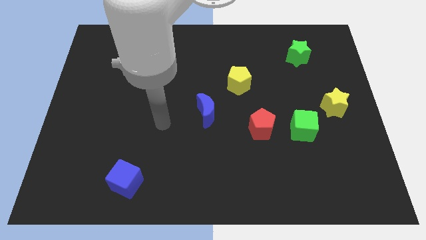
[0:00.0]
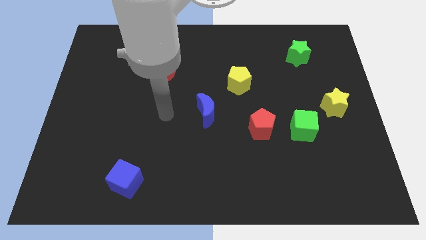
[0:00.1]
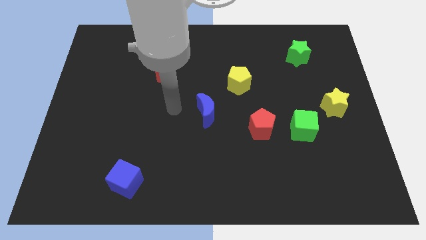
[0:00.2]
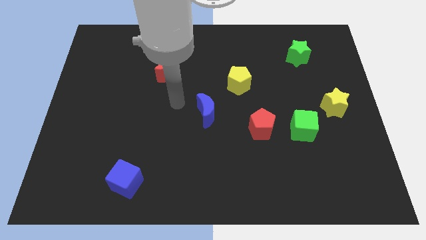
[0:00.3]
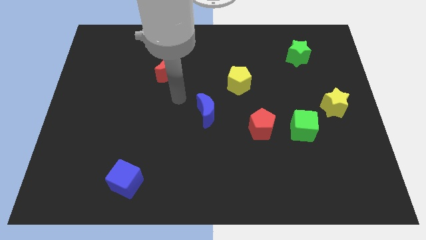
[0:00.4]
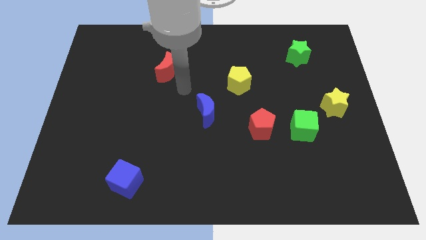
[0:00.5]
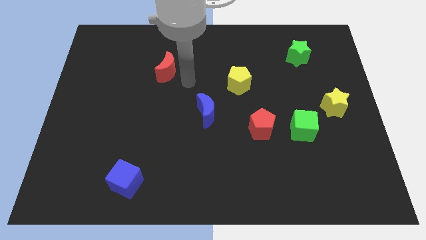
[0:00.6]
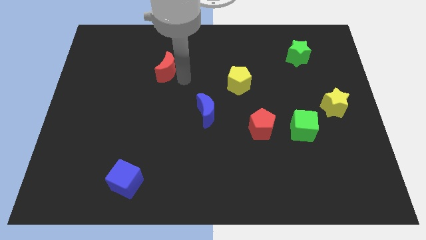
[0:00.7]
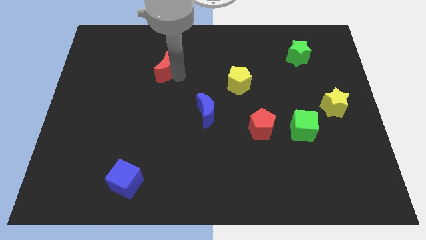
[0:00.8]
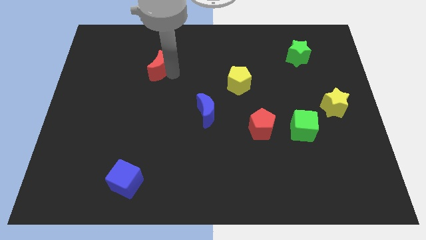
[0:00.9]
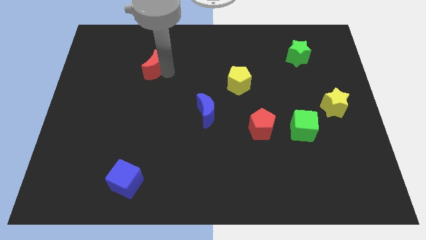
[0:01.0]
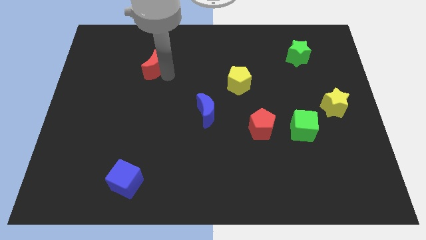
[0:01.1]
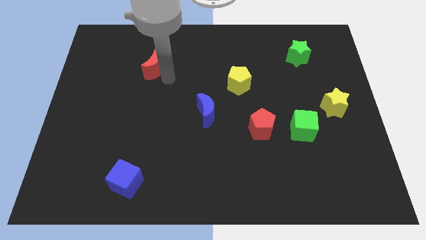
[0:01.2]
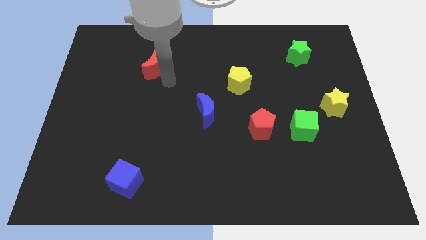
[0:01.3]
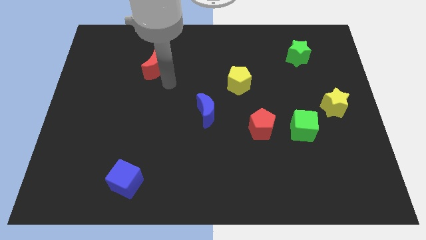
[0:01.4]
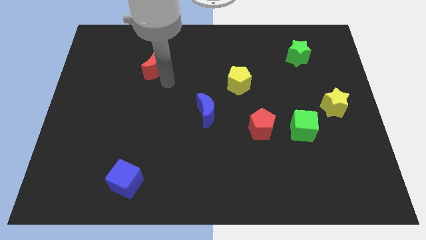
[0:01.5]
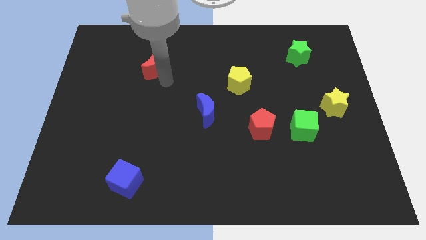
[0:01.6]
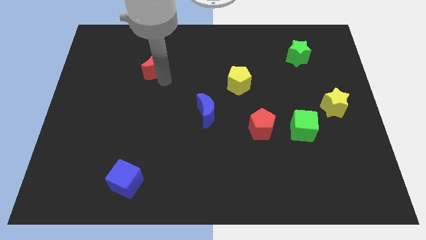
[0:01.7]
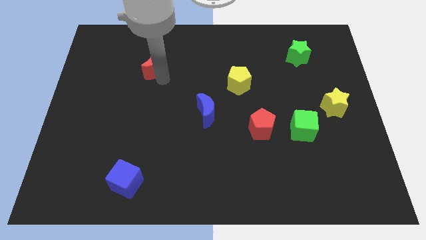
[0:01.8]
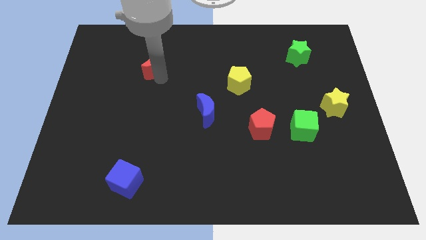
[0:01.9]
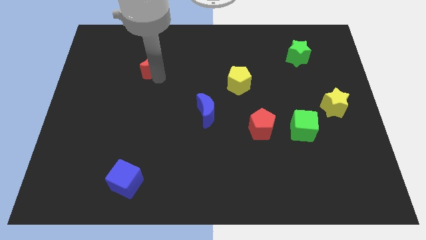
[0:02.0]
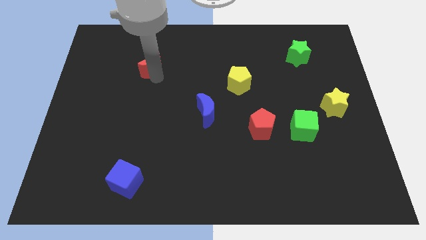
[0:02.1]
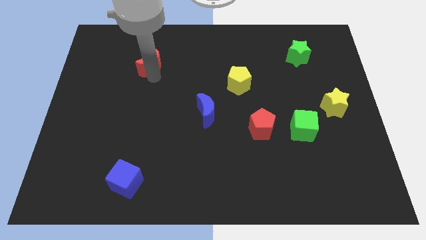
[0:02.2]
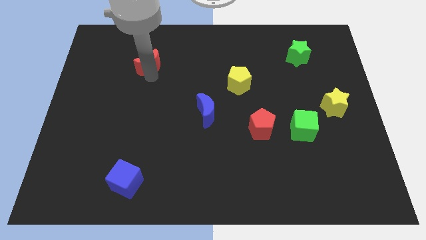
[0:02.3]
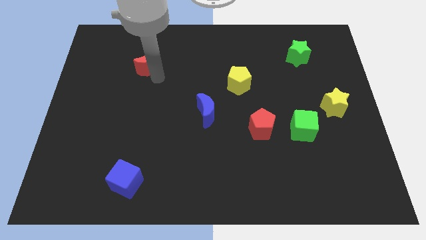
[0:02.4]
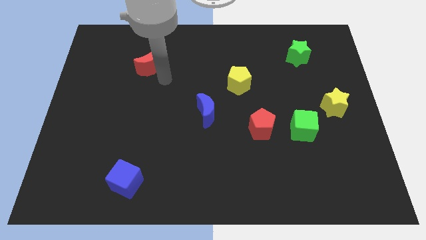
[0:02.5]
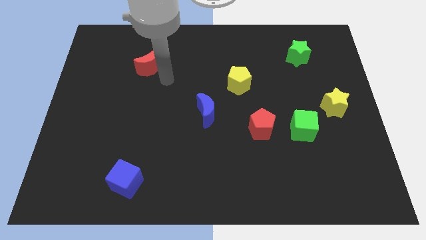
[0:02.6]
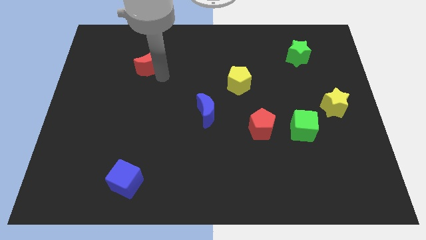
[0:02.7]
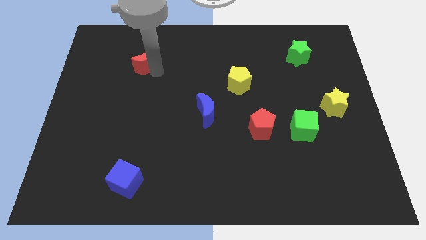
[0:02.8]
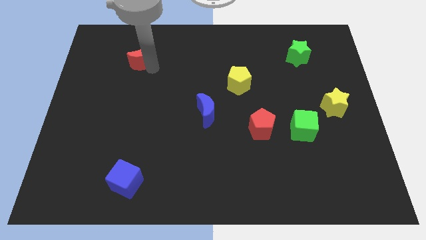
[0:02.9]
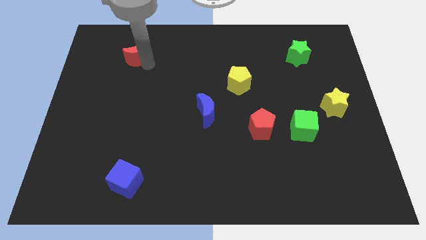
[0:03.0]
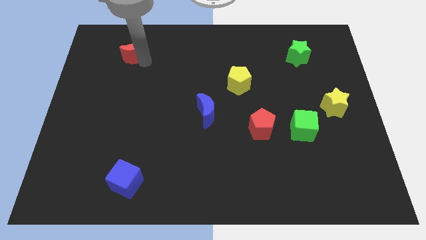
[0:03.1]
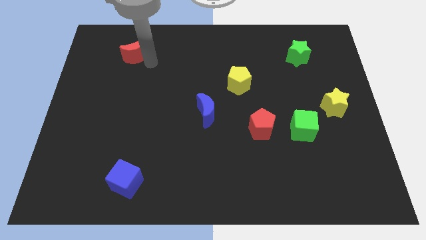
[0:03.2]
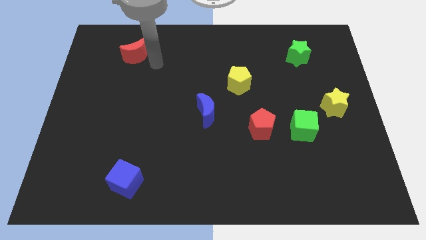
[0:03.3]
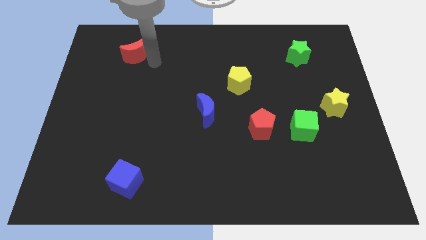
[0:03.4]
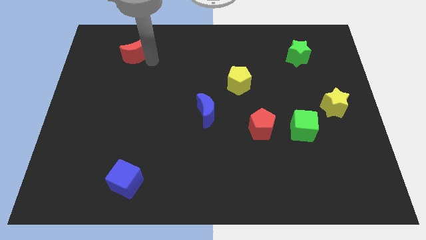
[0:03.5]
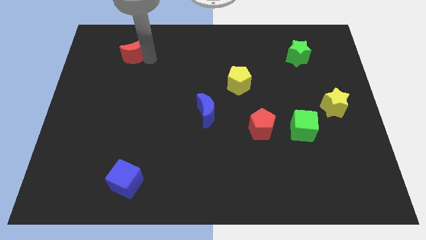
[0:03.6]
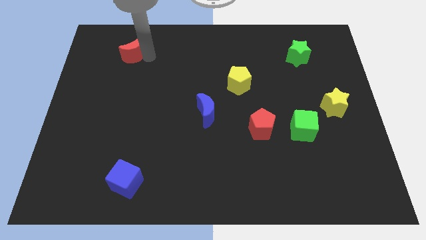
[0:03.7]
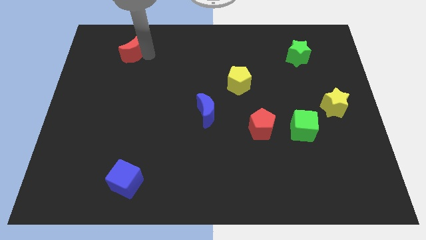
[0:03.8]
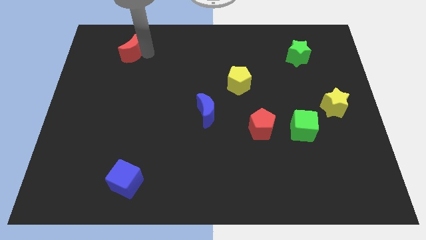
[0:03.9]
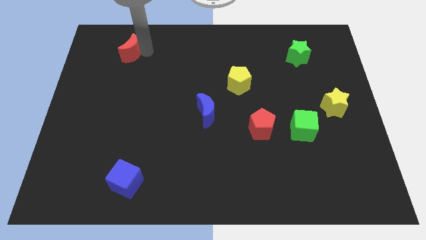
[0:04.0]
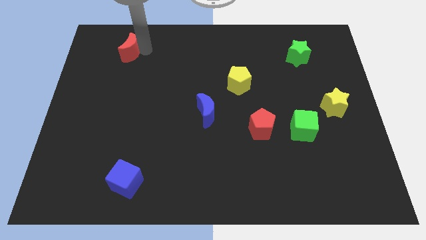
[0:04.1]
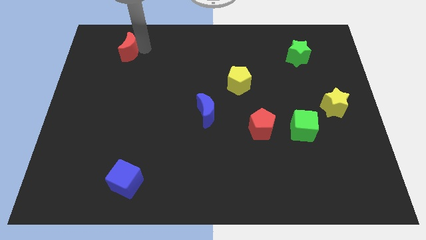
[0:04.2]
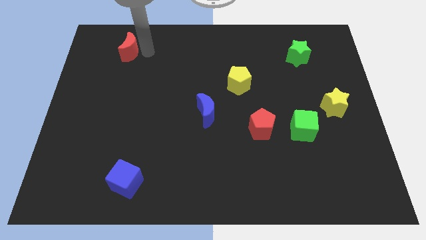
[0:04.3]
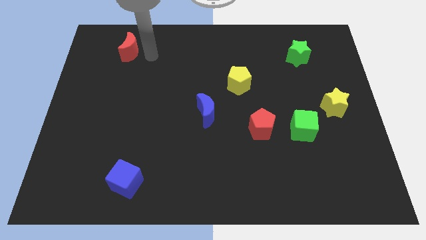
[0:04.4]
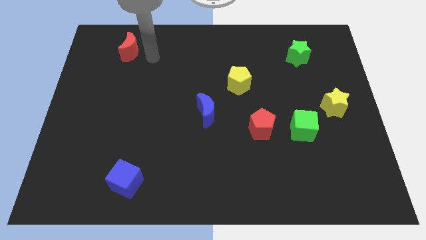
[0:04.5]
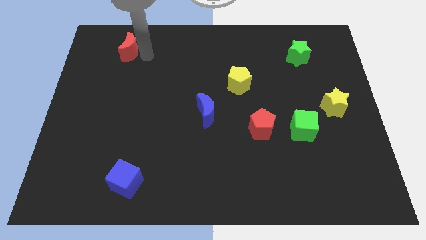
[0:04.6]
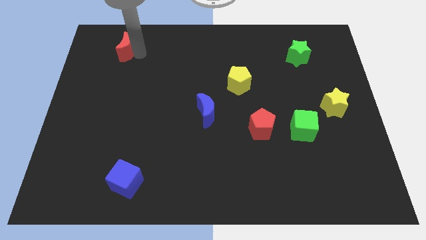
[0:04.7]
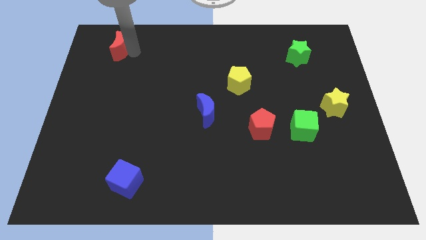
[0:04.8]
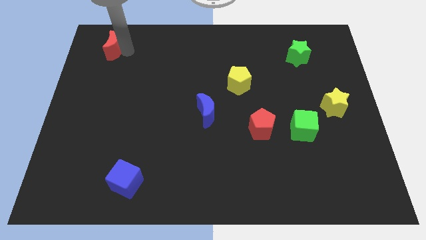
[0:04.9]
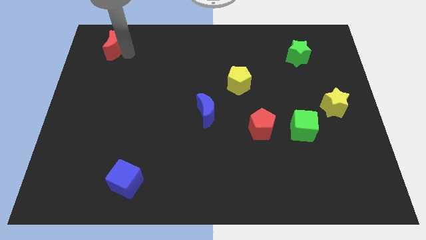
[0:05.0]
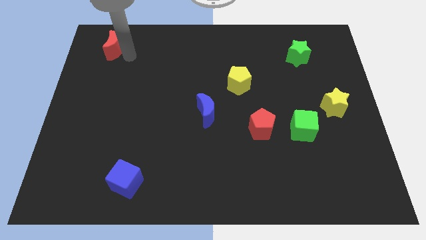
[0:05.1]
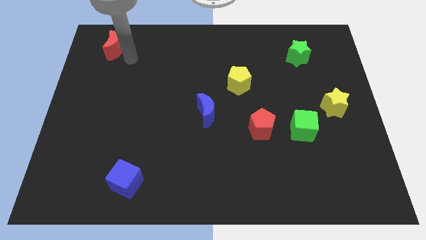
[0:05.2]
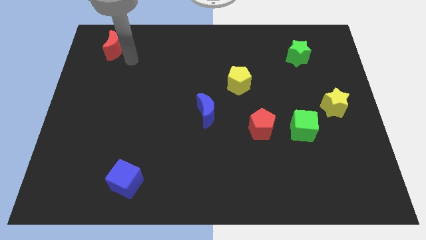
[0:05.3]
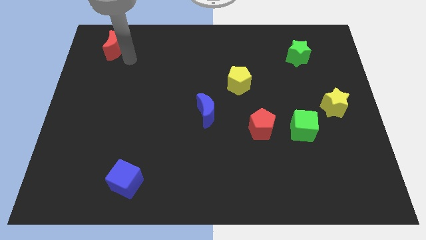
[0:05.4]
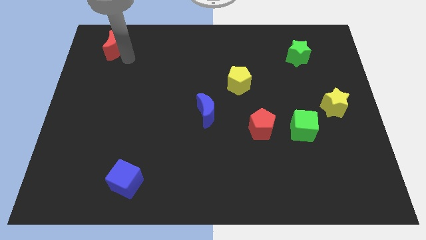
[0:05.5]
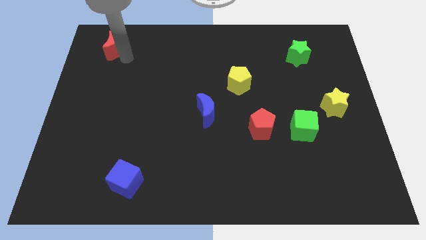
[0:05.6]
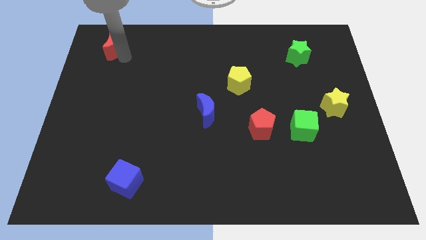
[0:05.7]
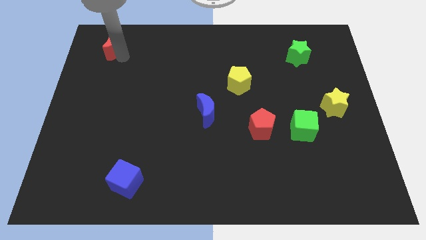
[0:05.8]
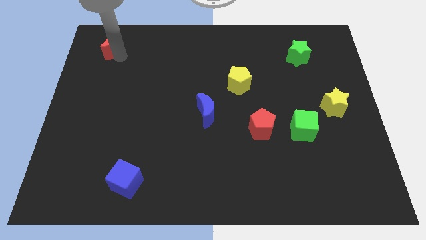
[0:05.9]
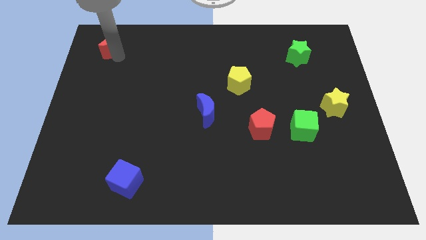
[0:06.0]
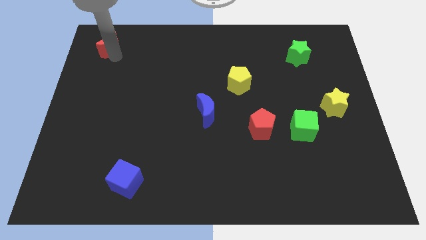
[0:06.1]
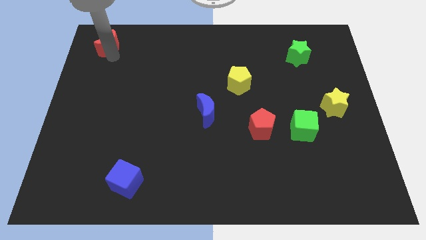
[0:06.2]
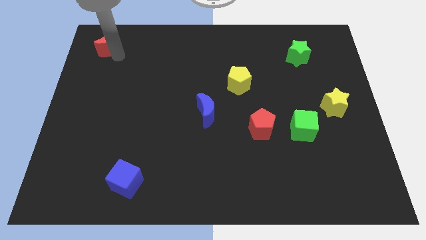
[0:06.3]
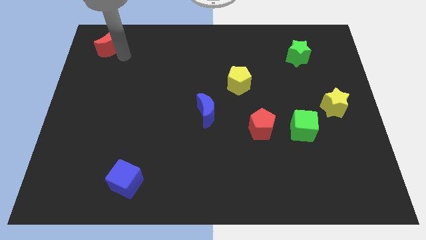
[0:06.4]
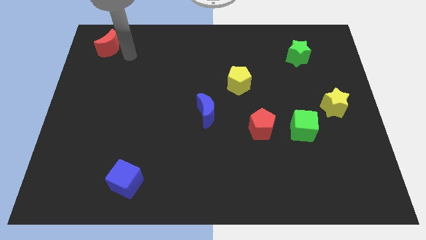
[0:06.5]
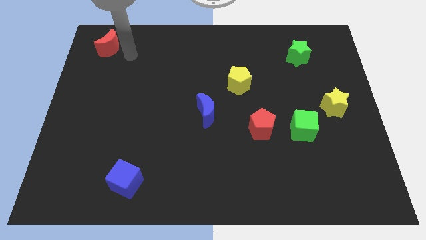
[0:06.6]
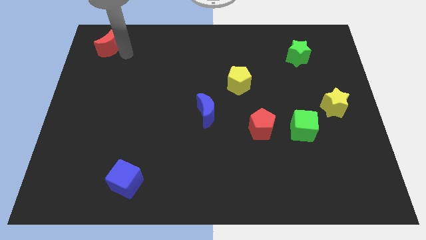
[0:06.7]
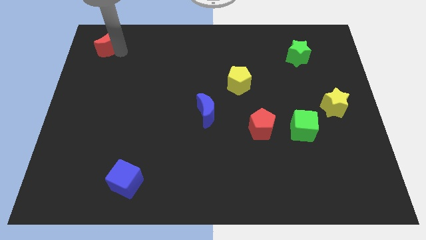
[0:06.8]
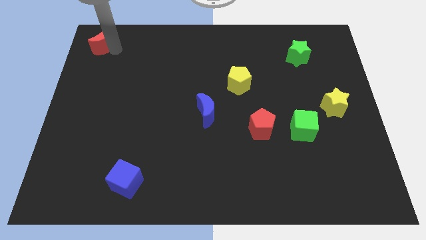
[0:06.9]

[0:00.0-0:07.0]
move the red moon to the upper left corner
